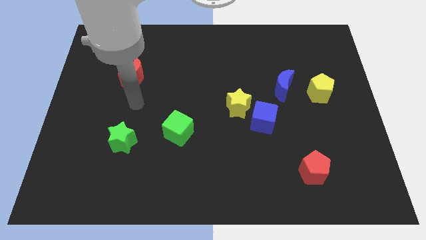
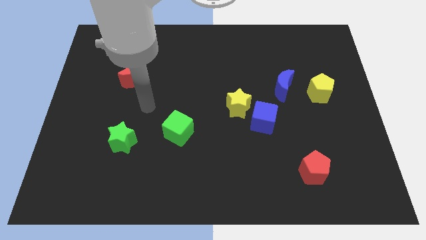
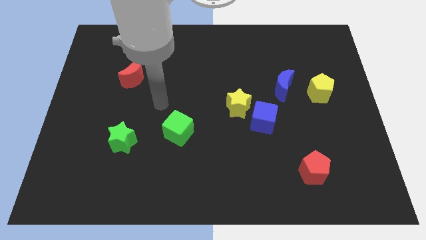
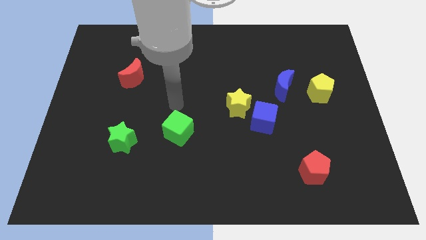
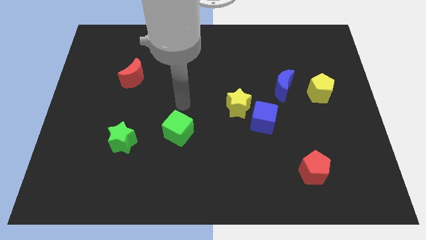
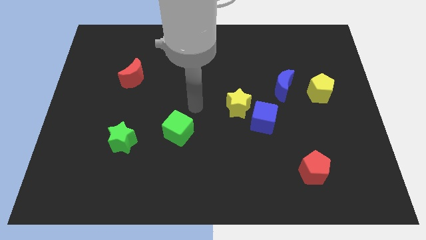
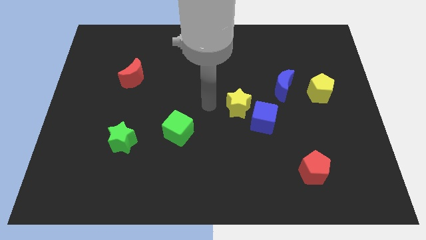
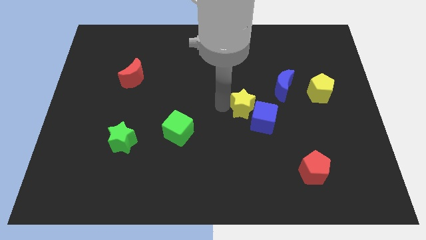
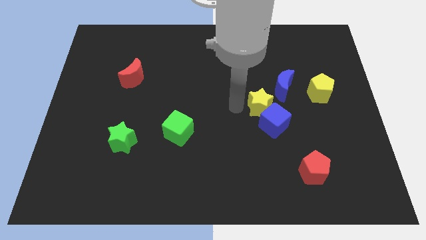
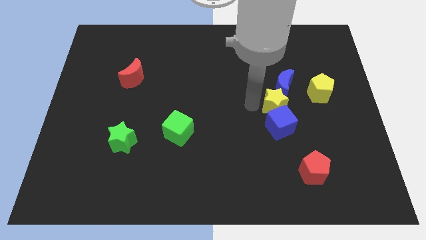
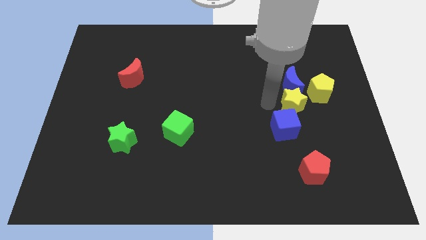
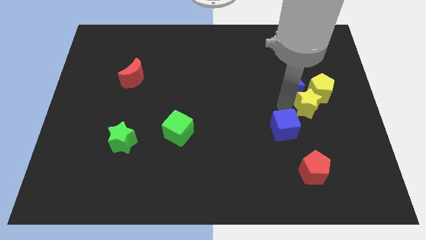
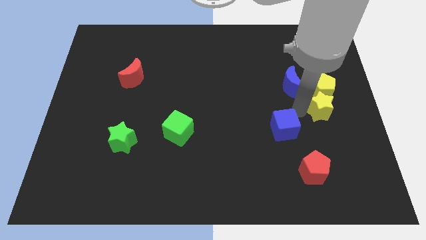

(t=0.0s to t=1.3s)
move the blue cube away from the yellow star

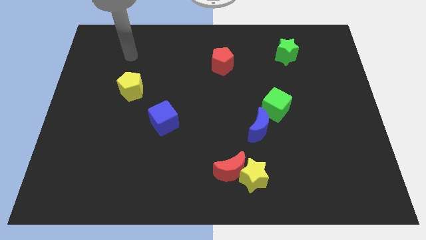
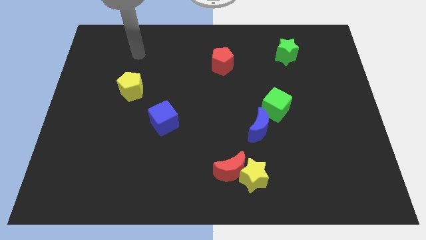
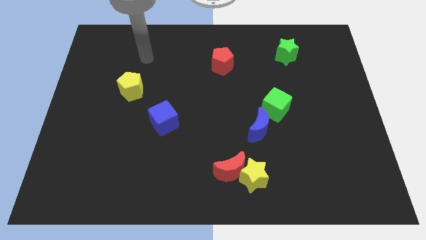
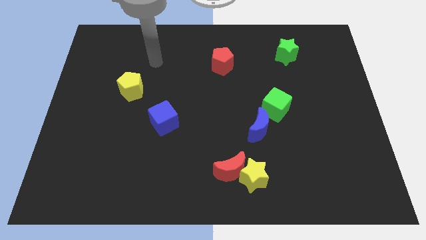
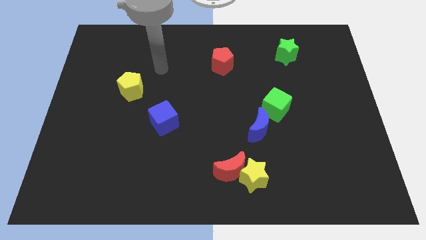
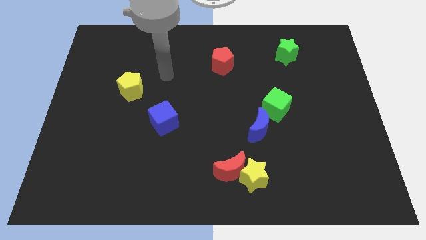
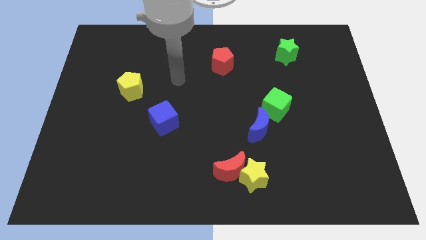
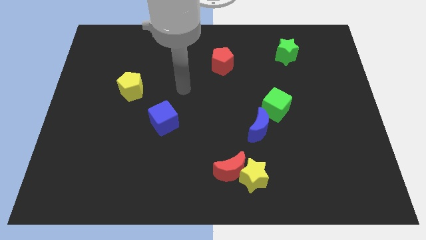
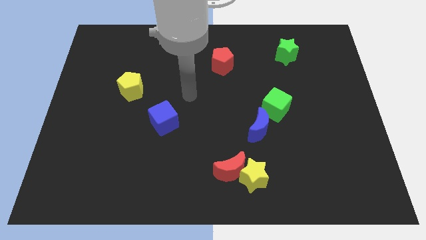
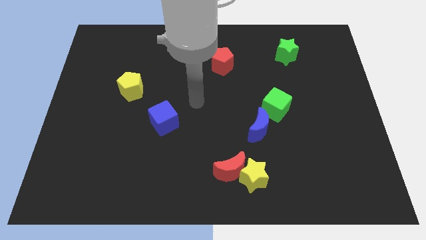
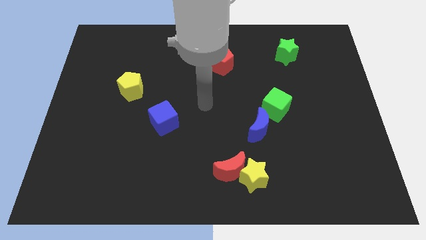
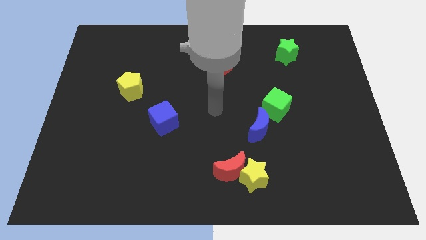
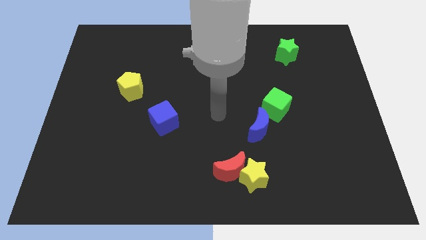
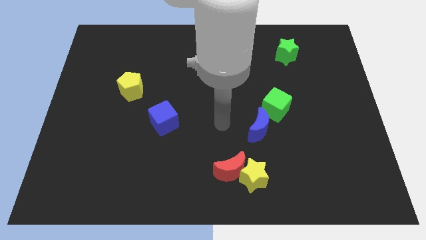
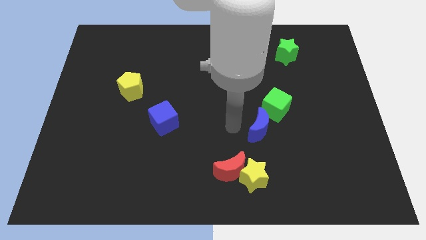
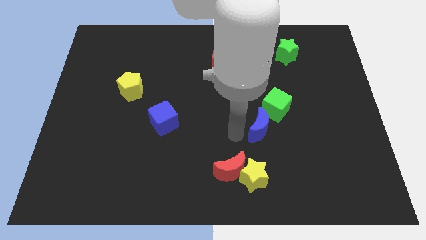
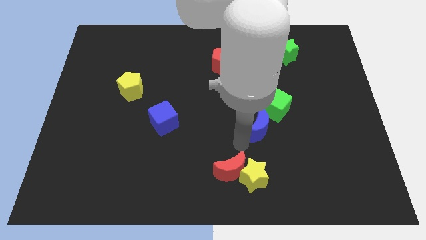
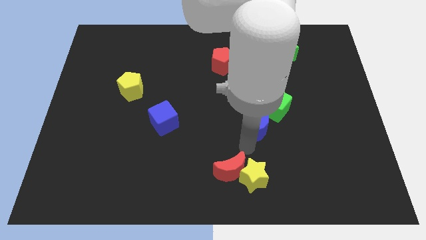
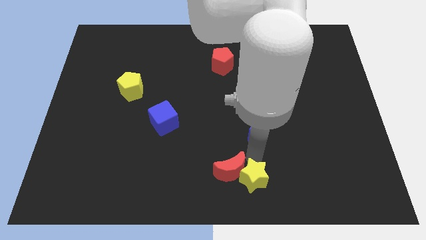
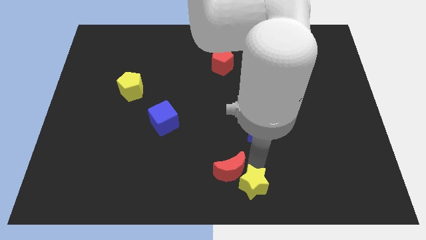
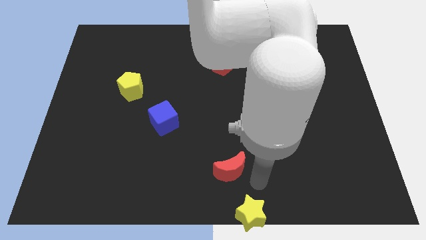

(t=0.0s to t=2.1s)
separate the red moon from the yellow star

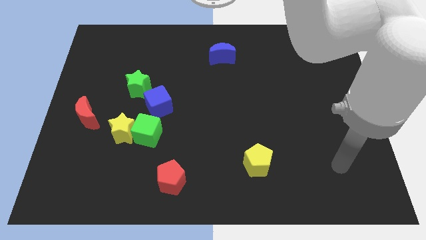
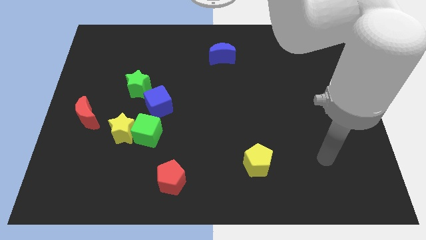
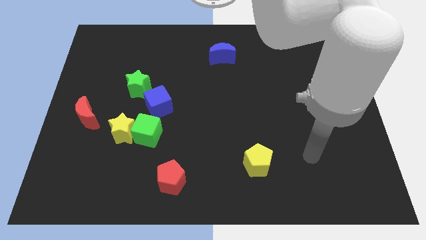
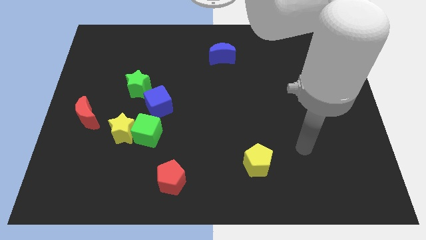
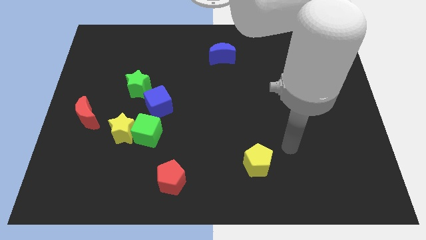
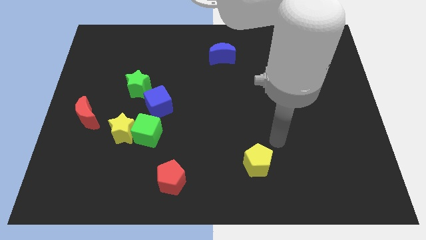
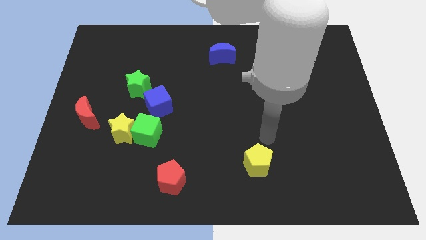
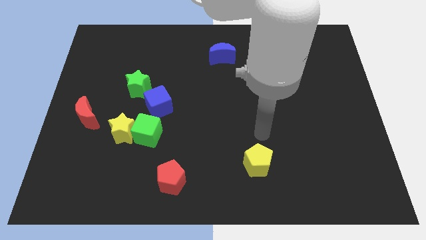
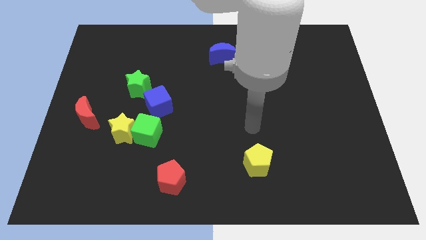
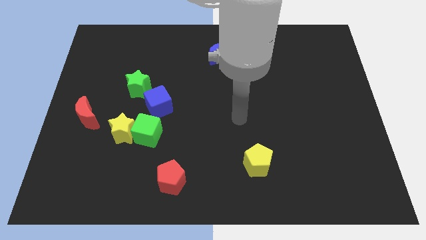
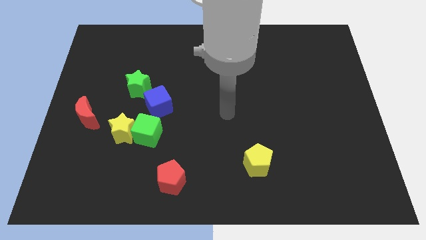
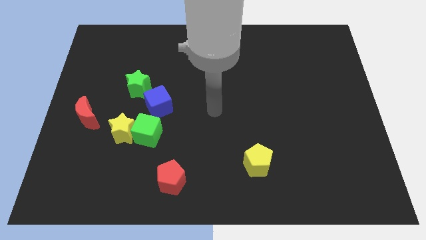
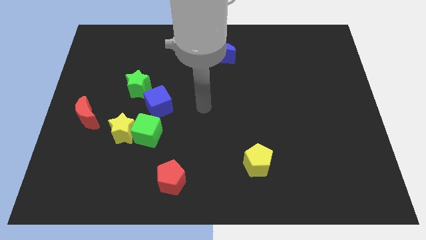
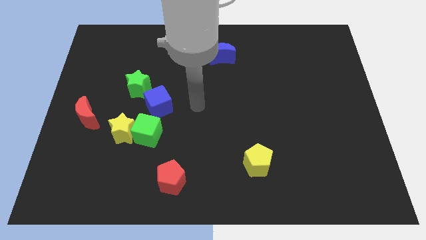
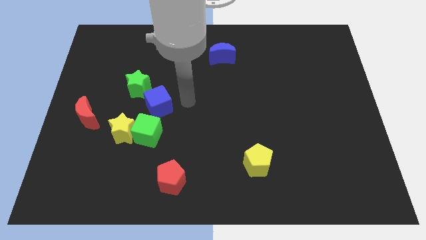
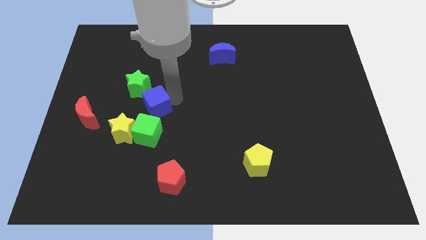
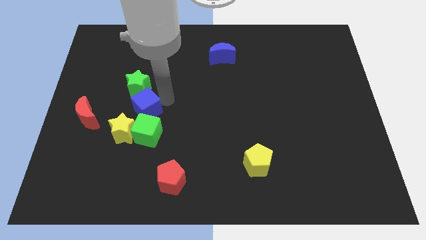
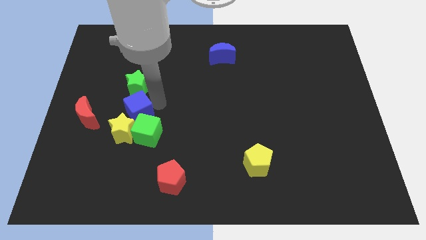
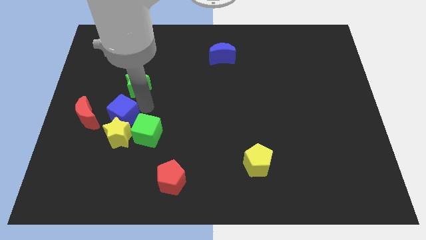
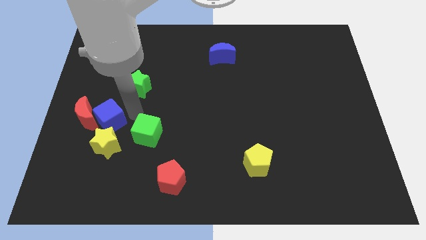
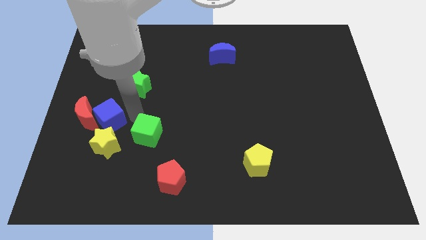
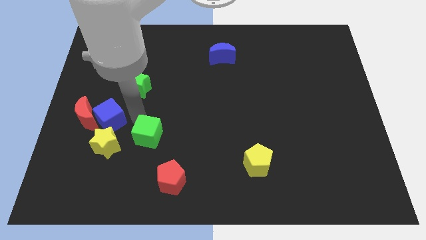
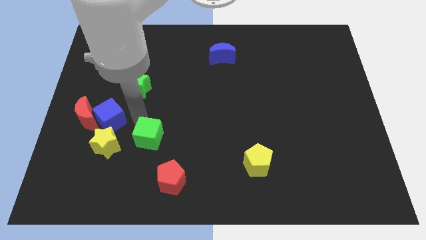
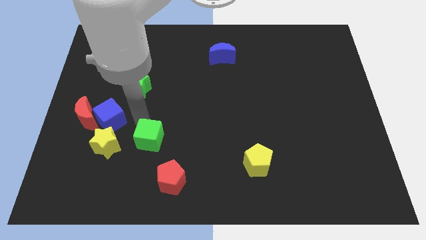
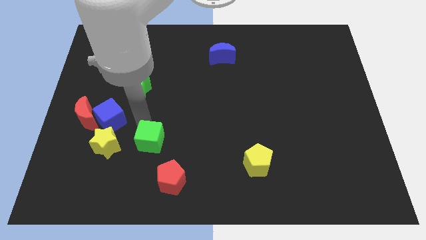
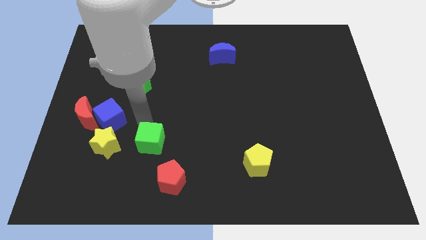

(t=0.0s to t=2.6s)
separate the green cube from the yellow star and blue cube

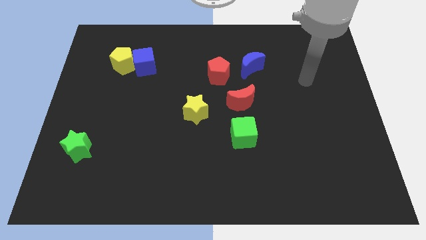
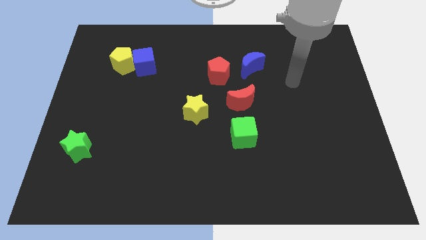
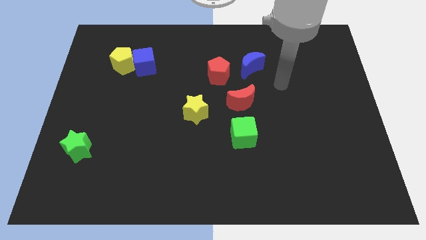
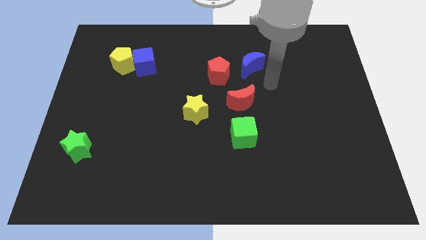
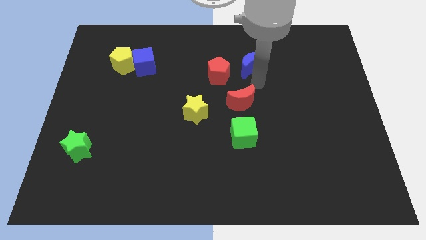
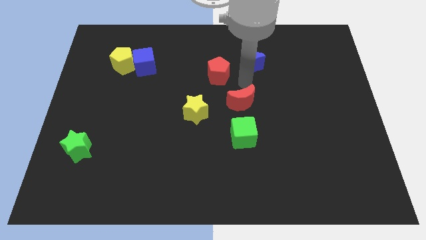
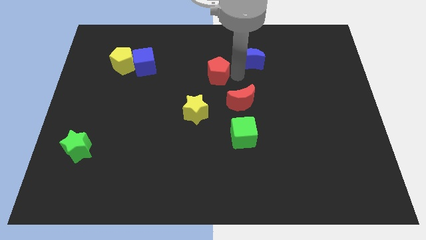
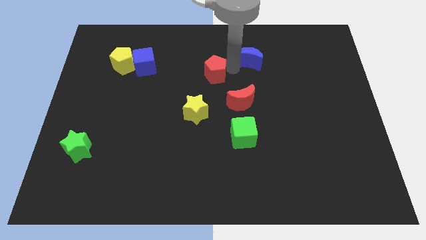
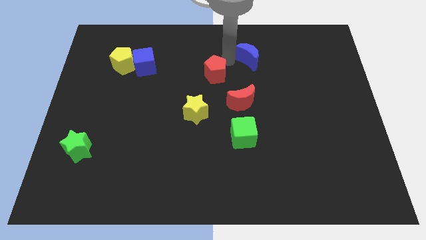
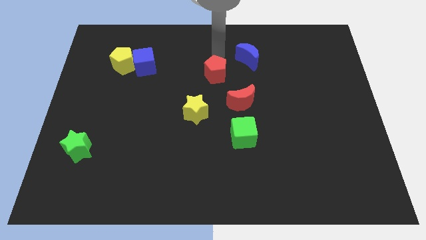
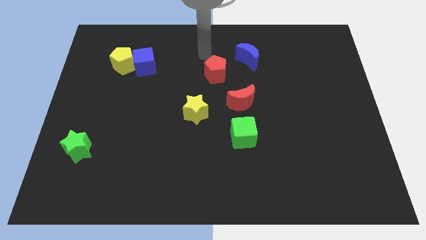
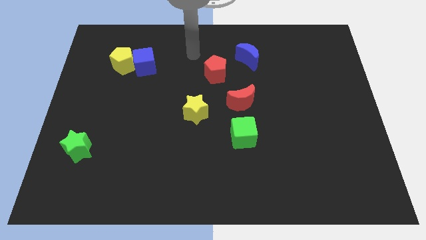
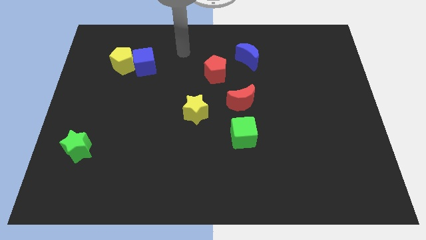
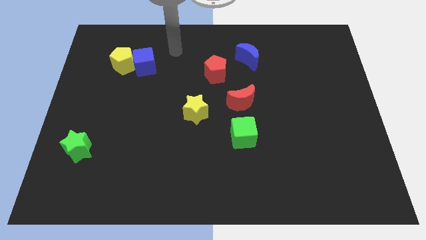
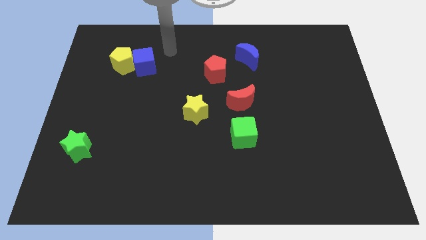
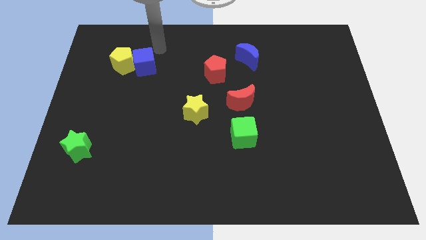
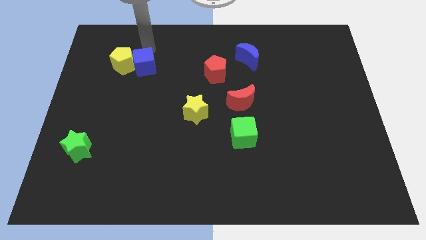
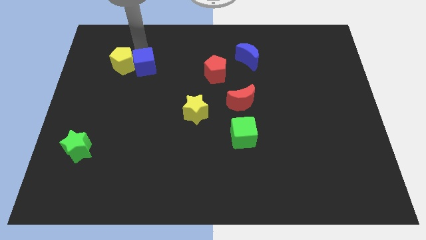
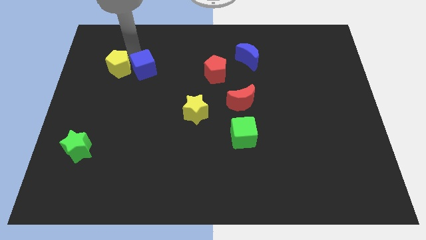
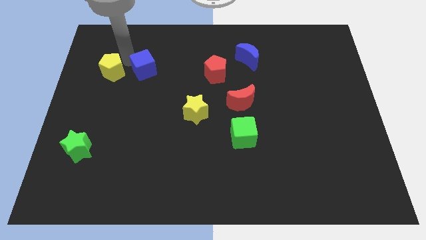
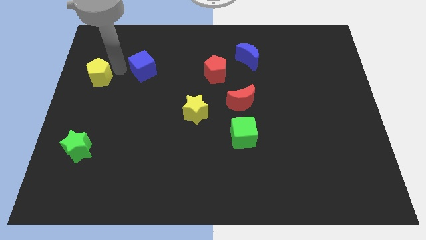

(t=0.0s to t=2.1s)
move the blue cube away from the yellow pentagon

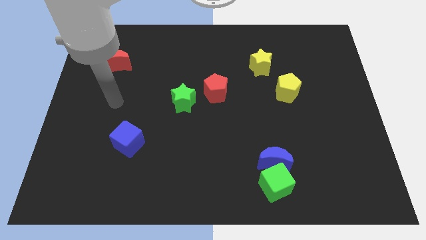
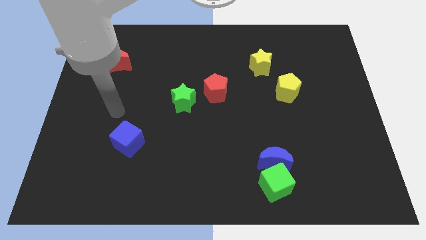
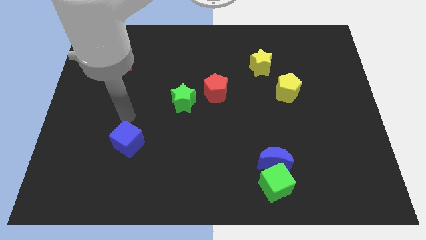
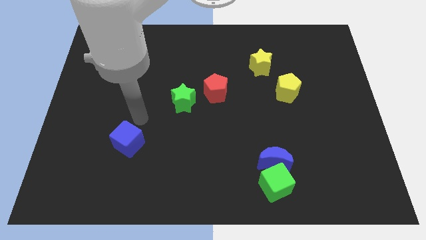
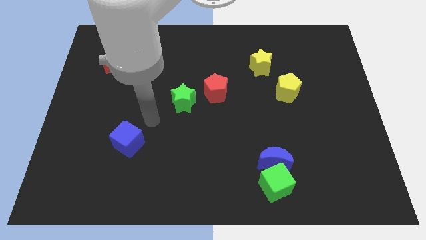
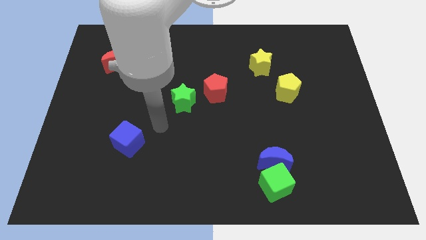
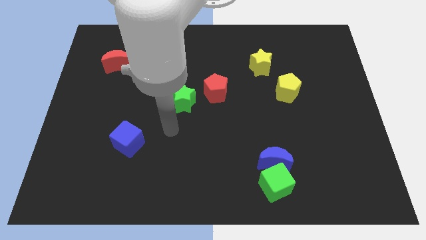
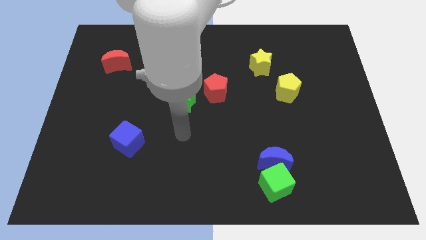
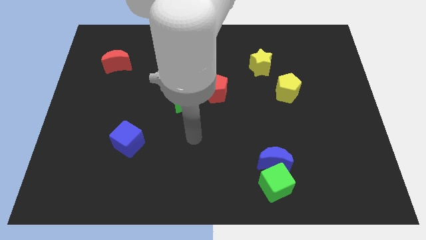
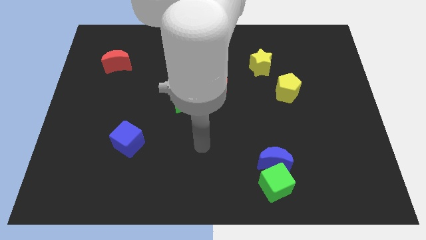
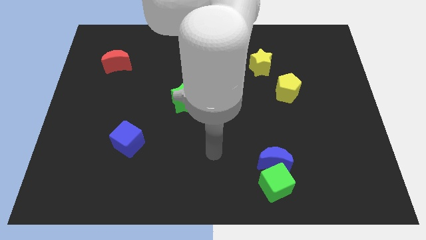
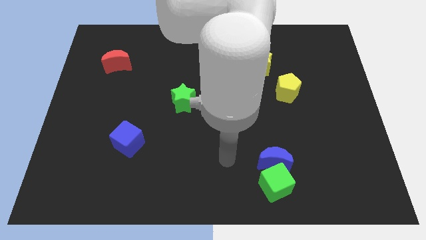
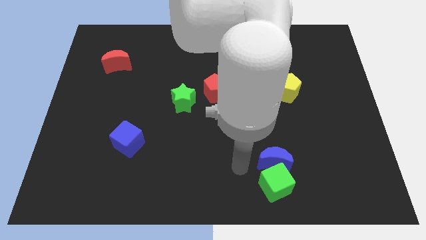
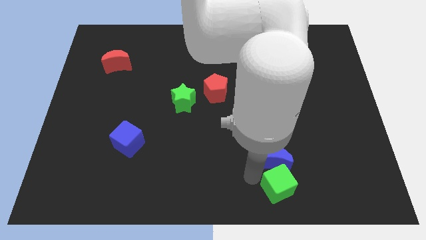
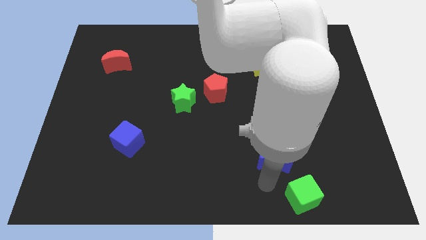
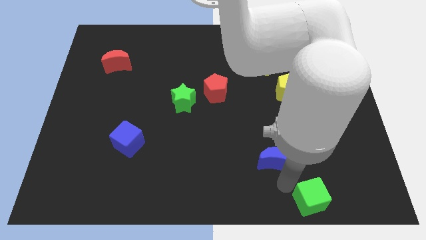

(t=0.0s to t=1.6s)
separate the blue moon from the green cube
